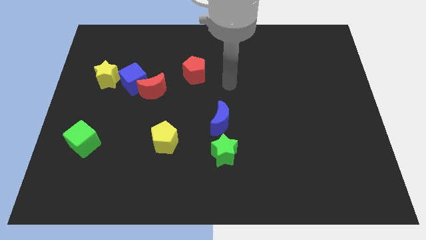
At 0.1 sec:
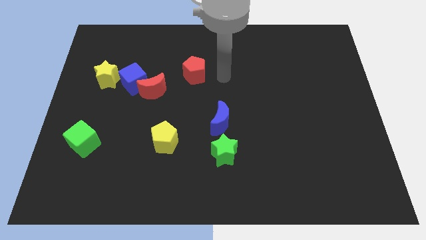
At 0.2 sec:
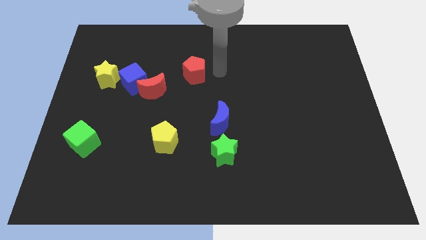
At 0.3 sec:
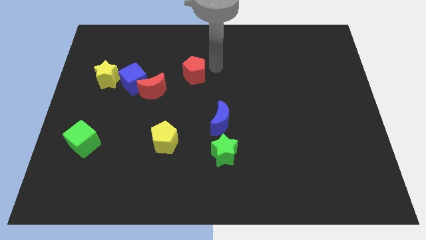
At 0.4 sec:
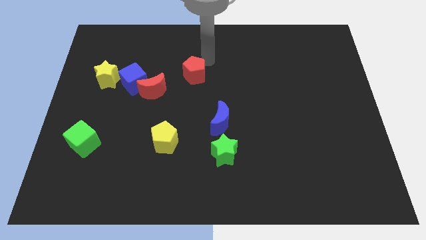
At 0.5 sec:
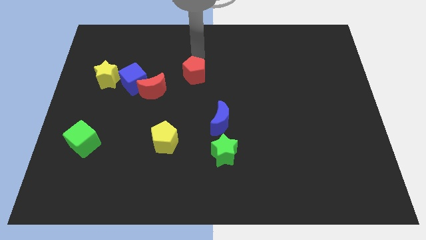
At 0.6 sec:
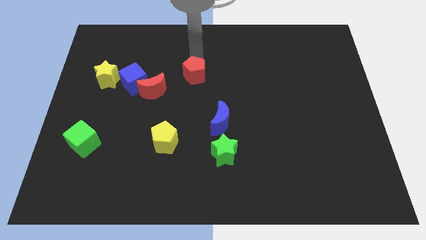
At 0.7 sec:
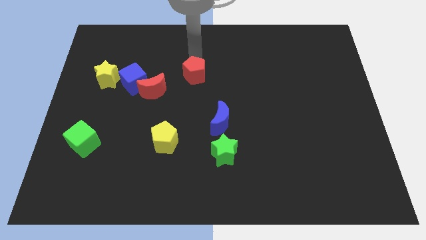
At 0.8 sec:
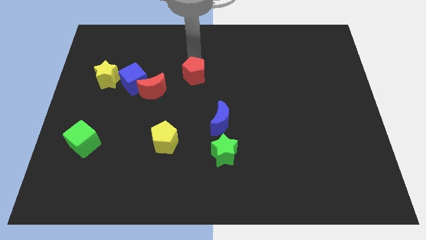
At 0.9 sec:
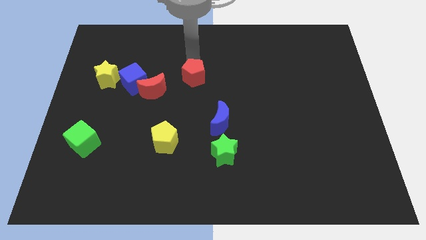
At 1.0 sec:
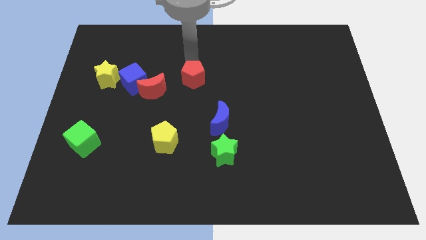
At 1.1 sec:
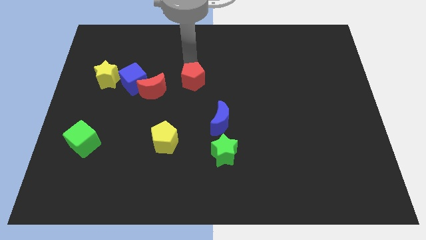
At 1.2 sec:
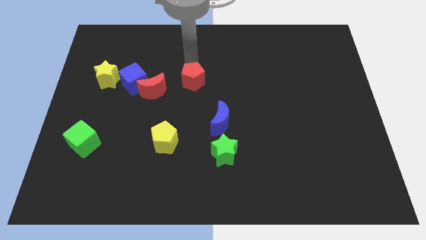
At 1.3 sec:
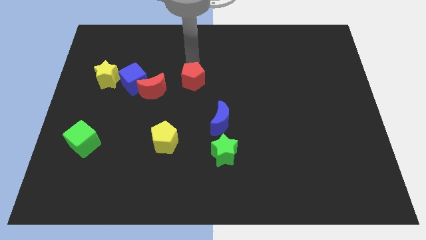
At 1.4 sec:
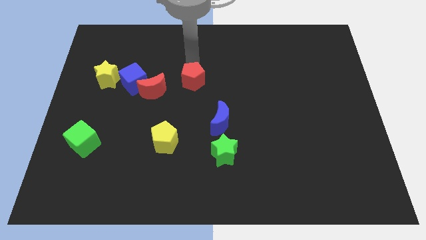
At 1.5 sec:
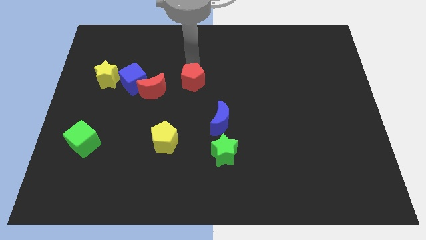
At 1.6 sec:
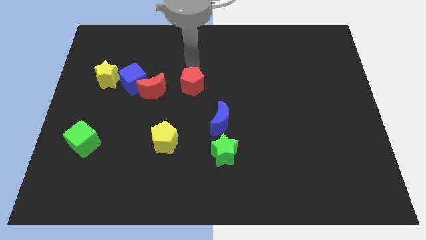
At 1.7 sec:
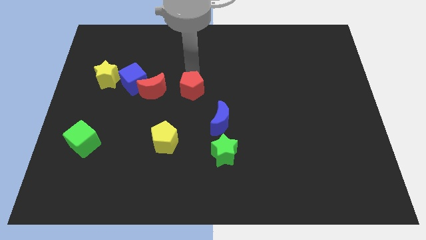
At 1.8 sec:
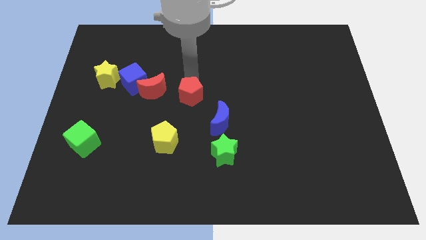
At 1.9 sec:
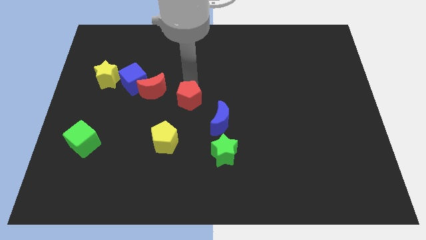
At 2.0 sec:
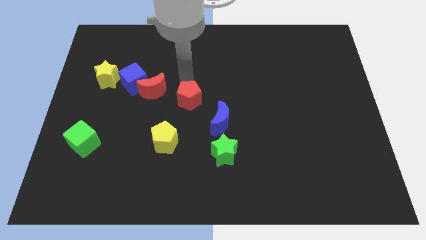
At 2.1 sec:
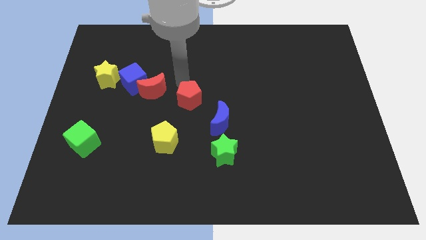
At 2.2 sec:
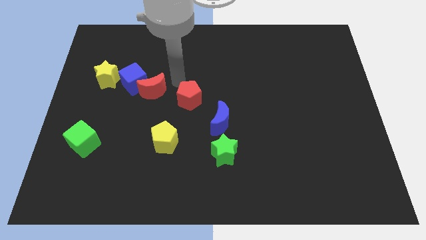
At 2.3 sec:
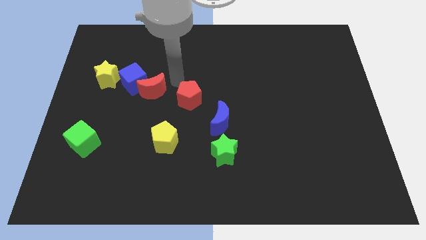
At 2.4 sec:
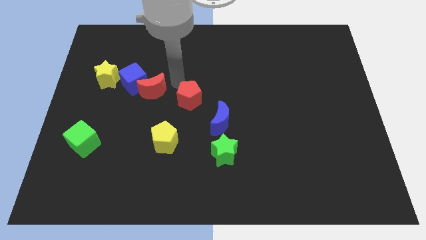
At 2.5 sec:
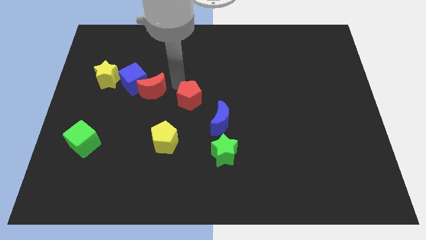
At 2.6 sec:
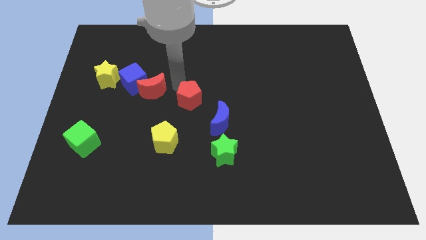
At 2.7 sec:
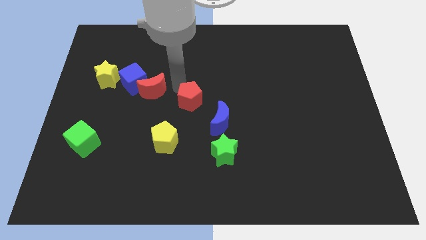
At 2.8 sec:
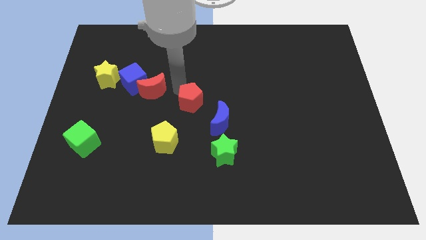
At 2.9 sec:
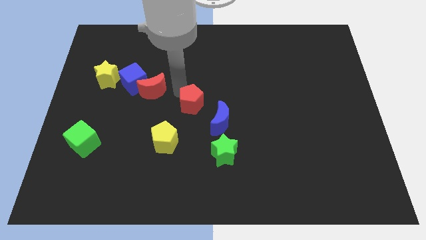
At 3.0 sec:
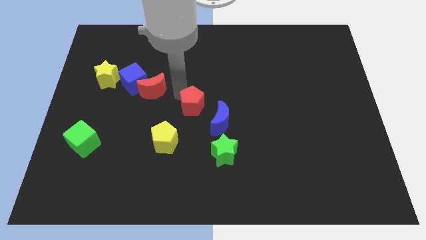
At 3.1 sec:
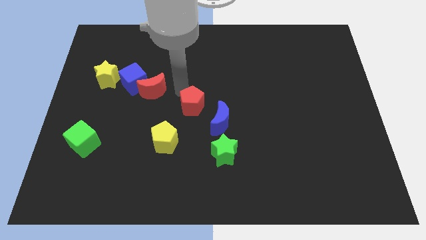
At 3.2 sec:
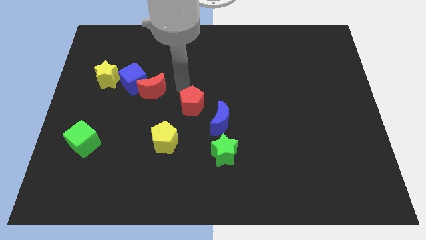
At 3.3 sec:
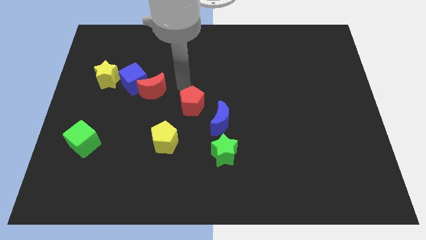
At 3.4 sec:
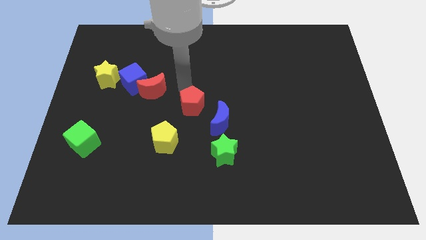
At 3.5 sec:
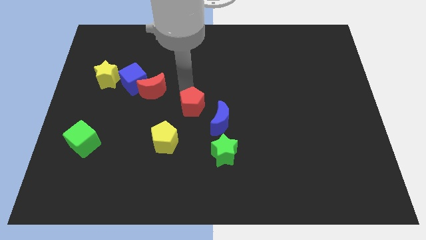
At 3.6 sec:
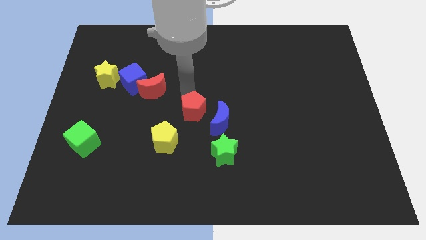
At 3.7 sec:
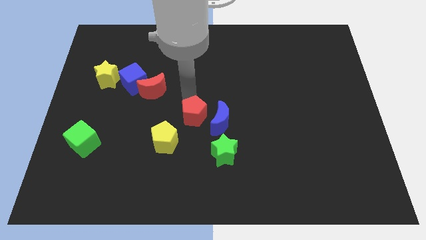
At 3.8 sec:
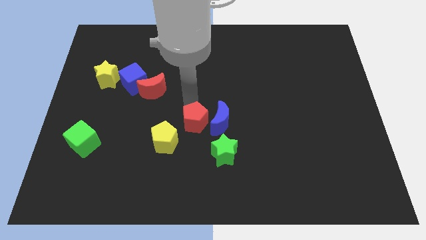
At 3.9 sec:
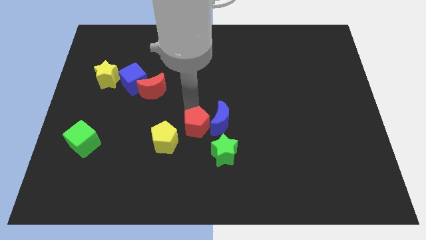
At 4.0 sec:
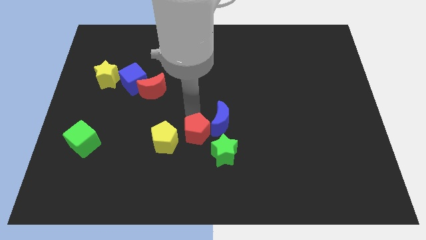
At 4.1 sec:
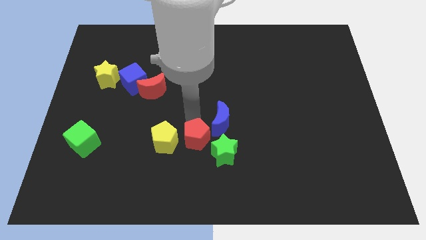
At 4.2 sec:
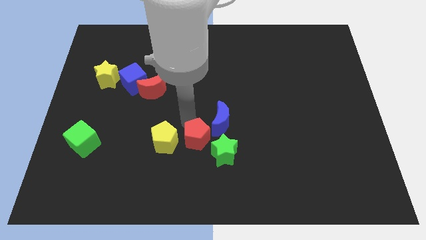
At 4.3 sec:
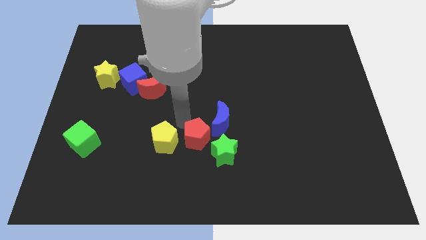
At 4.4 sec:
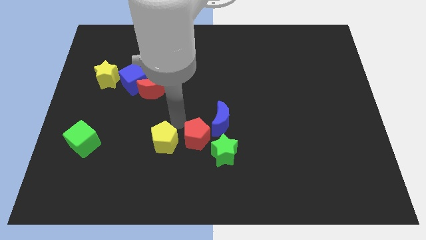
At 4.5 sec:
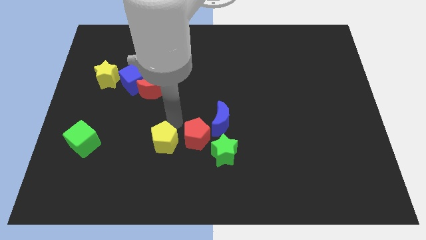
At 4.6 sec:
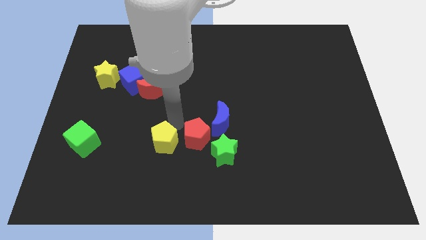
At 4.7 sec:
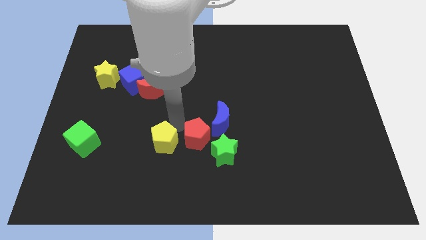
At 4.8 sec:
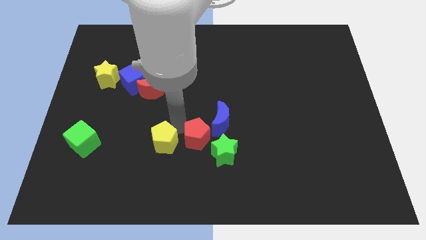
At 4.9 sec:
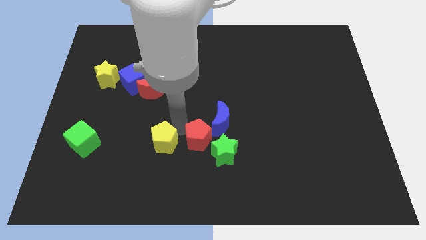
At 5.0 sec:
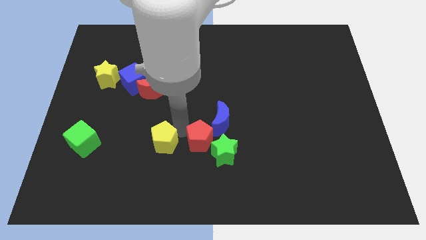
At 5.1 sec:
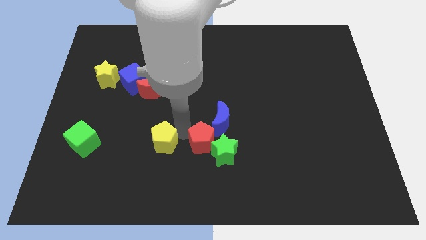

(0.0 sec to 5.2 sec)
move the red pentagon towards the green star

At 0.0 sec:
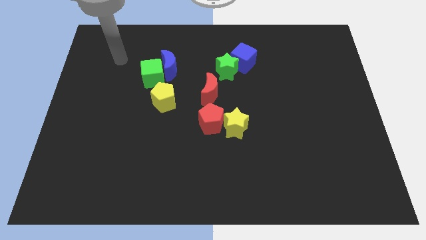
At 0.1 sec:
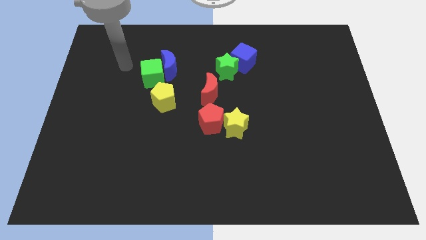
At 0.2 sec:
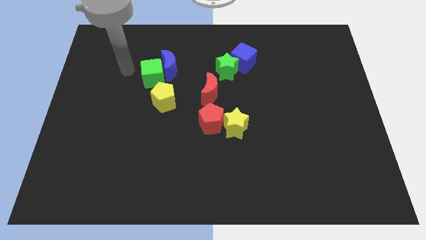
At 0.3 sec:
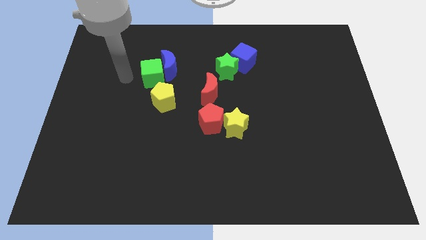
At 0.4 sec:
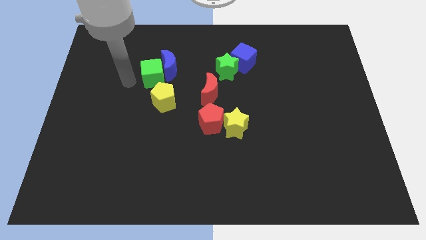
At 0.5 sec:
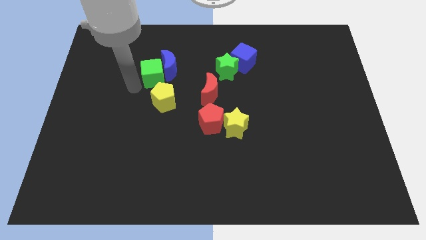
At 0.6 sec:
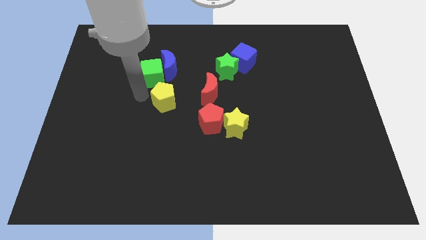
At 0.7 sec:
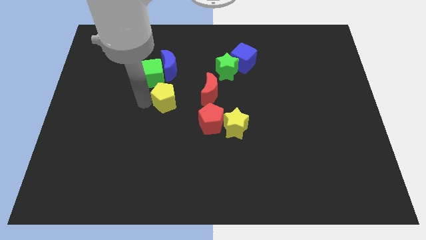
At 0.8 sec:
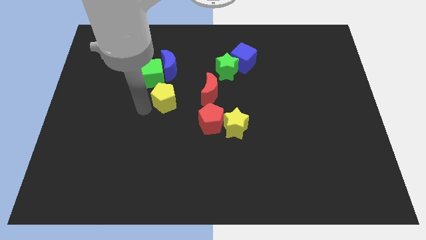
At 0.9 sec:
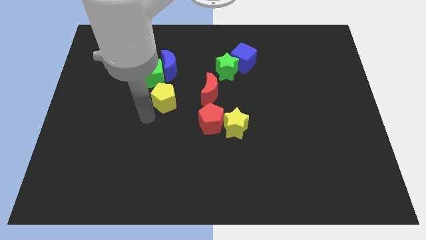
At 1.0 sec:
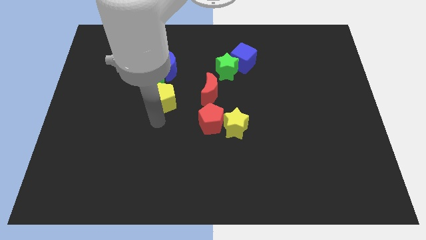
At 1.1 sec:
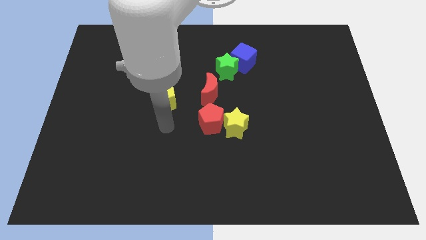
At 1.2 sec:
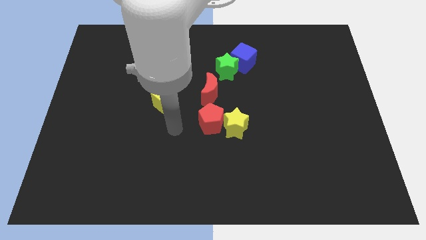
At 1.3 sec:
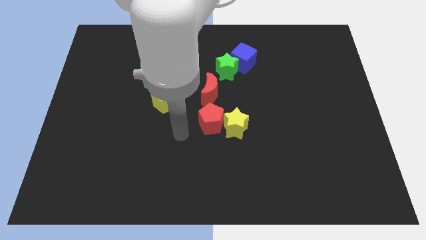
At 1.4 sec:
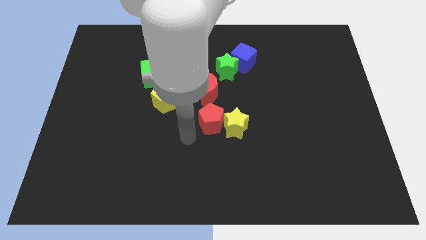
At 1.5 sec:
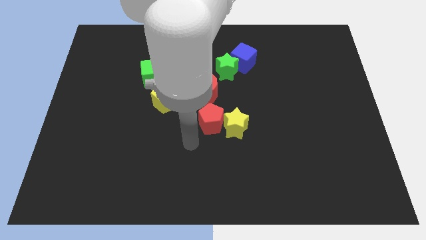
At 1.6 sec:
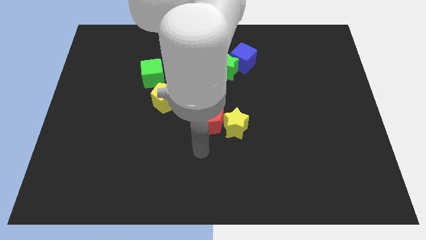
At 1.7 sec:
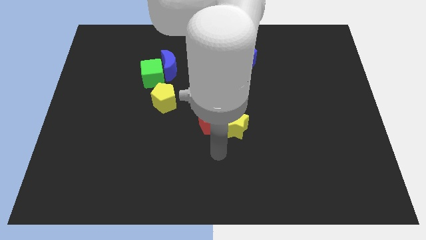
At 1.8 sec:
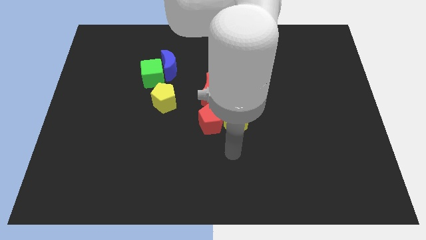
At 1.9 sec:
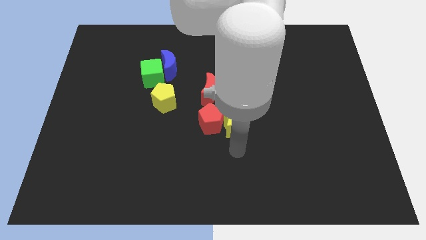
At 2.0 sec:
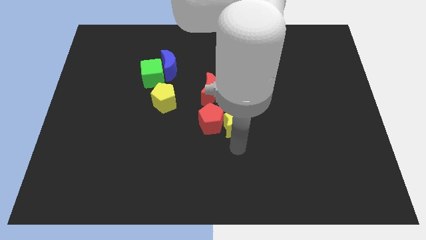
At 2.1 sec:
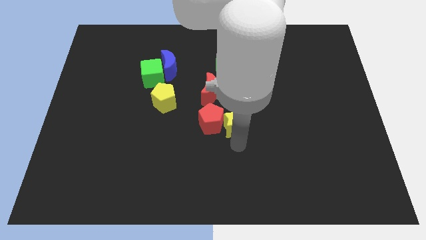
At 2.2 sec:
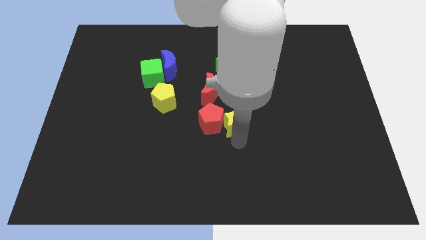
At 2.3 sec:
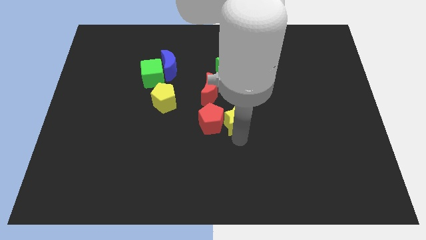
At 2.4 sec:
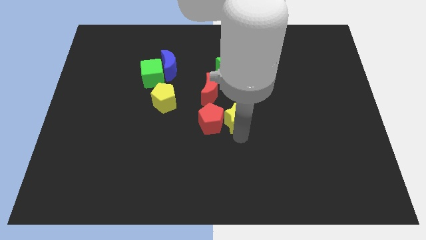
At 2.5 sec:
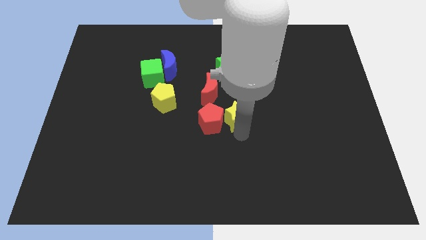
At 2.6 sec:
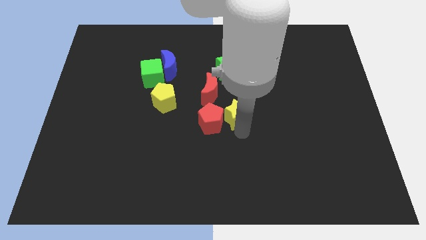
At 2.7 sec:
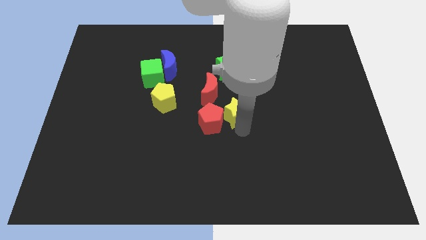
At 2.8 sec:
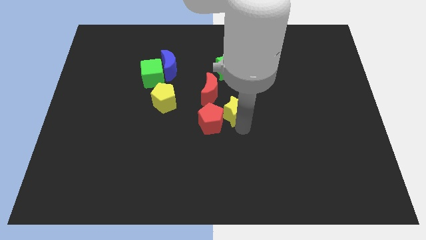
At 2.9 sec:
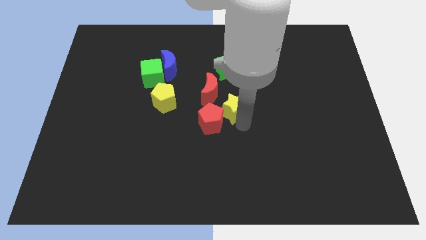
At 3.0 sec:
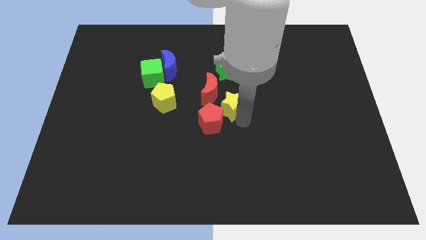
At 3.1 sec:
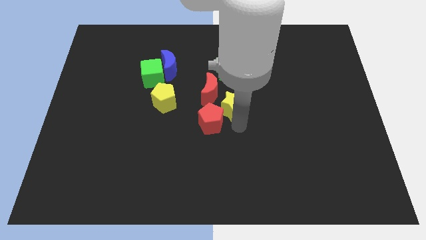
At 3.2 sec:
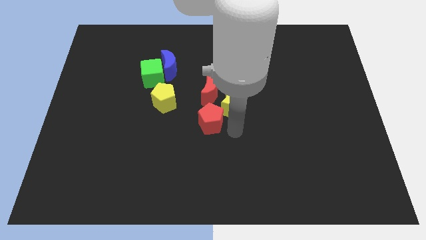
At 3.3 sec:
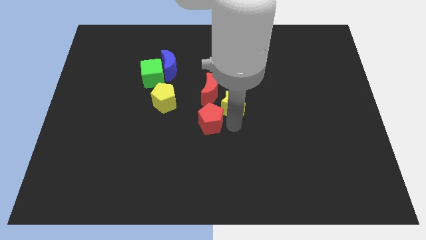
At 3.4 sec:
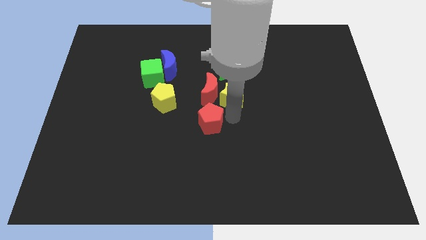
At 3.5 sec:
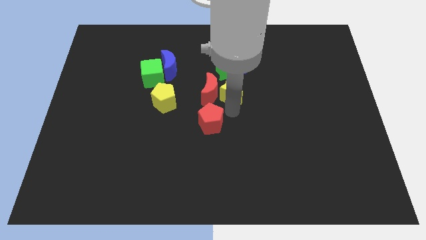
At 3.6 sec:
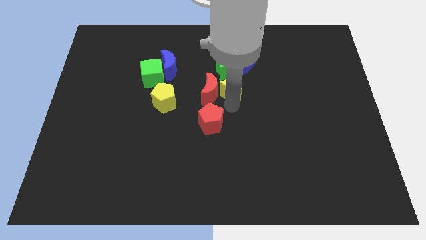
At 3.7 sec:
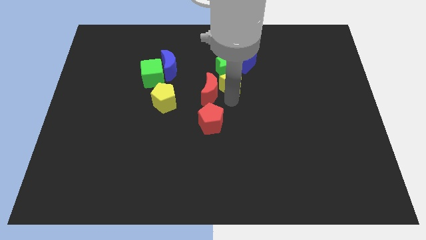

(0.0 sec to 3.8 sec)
move the yellow star next to the green star
